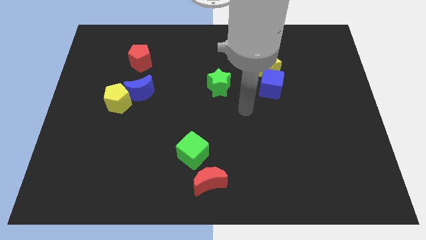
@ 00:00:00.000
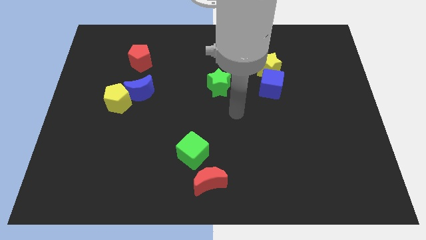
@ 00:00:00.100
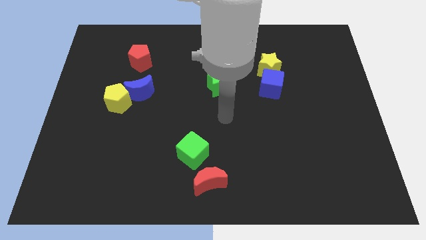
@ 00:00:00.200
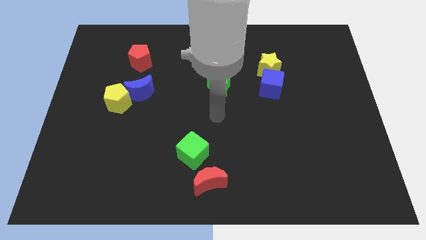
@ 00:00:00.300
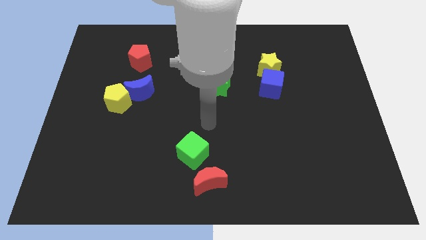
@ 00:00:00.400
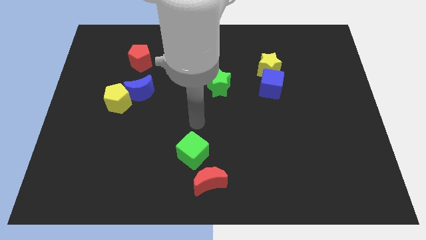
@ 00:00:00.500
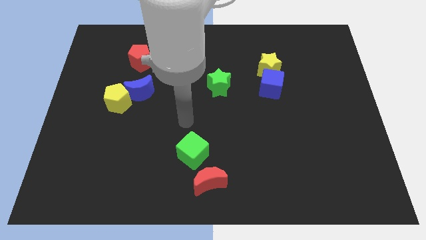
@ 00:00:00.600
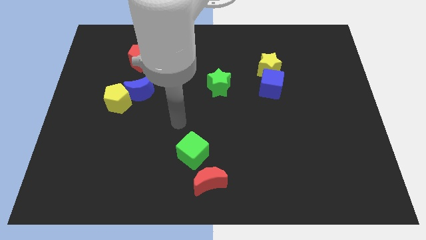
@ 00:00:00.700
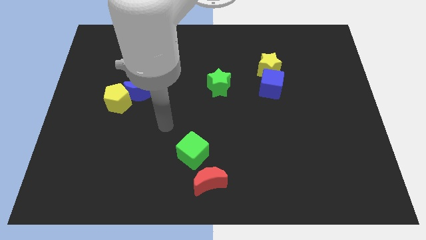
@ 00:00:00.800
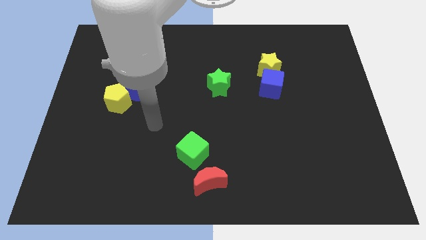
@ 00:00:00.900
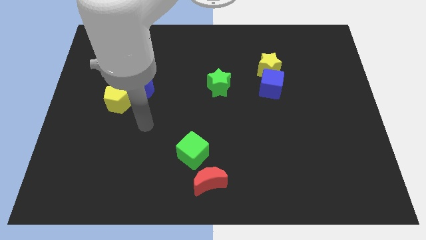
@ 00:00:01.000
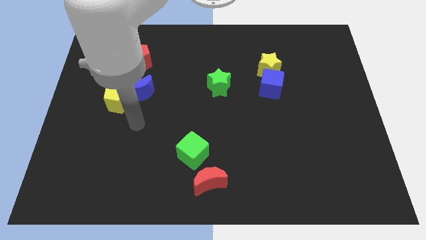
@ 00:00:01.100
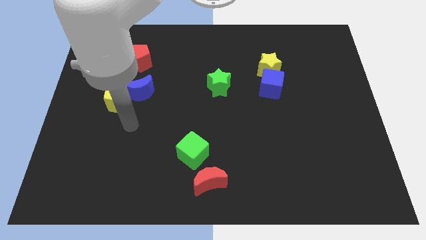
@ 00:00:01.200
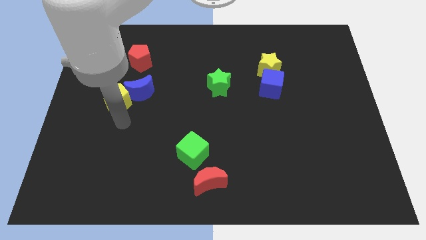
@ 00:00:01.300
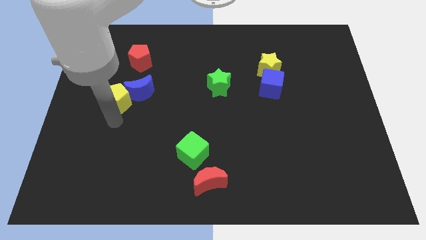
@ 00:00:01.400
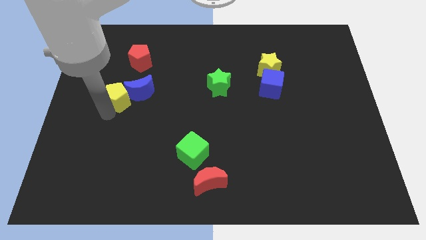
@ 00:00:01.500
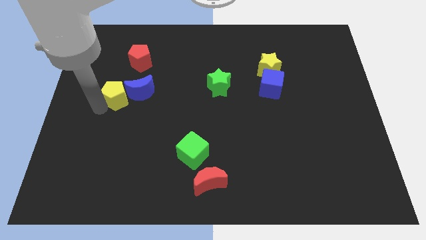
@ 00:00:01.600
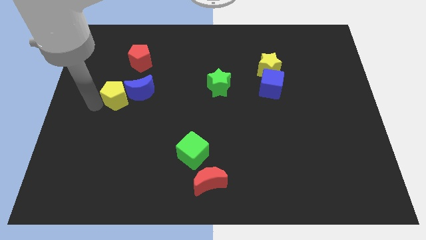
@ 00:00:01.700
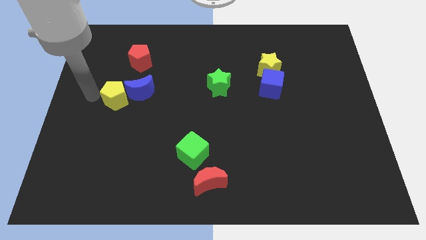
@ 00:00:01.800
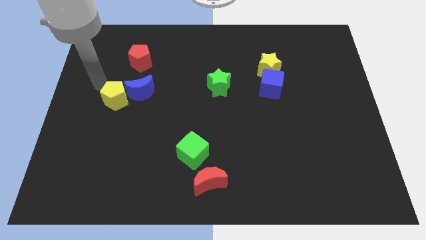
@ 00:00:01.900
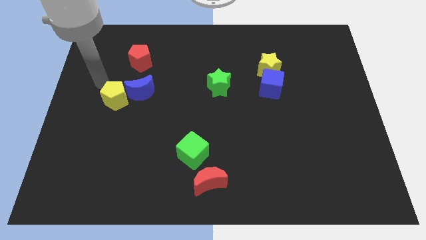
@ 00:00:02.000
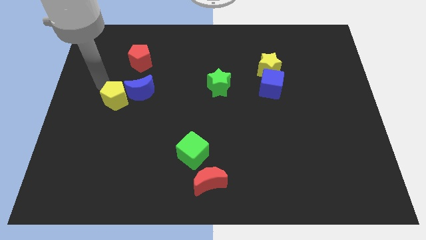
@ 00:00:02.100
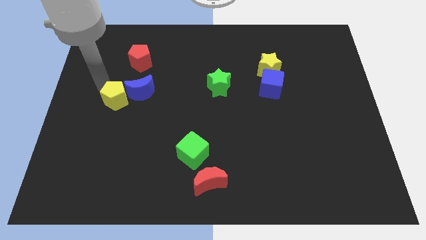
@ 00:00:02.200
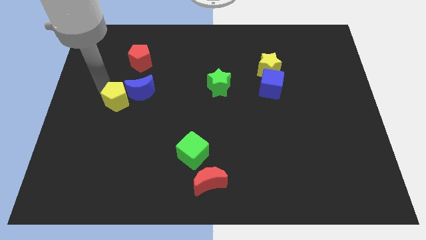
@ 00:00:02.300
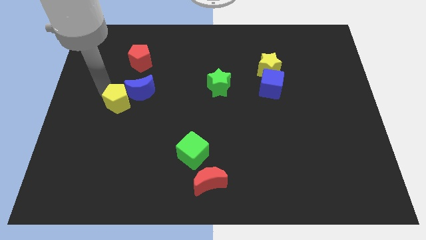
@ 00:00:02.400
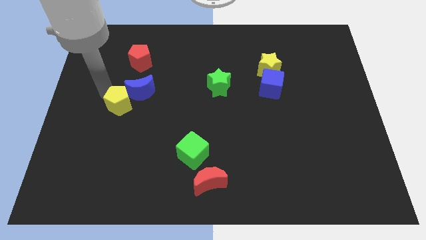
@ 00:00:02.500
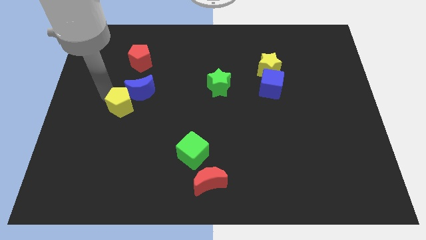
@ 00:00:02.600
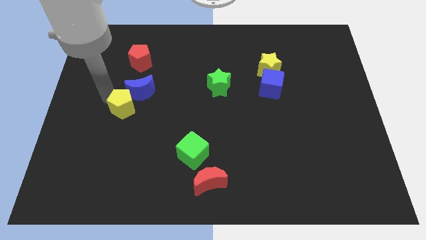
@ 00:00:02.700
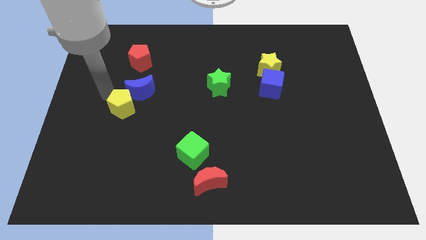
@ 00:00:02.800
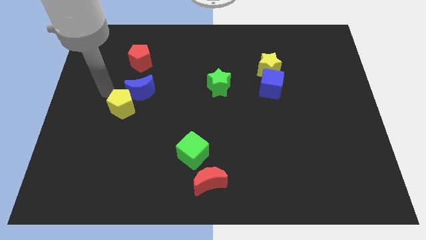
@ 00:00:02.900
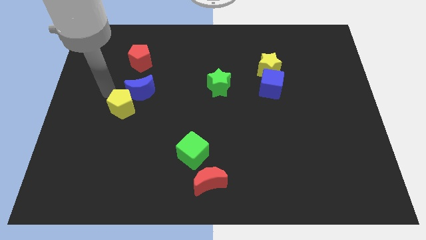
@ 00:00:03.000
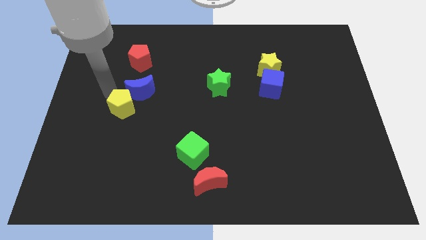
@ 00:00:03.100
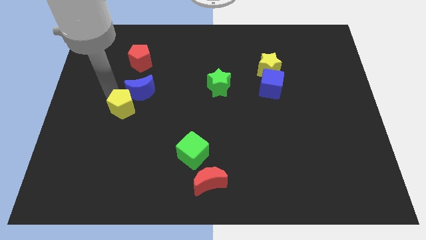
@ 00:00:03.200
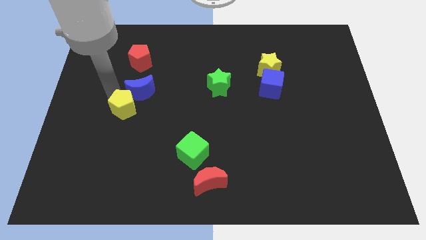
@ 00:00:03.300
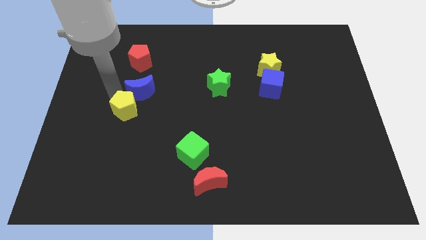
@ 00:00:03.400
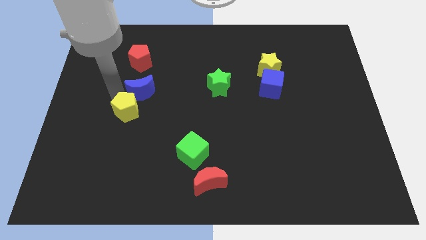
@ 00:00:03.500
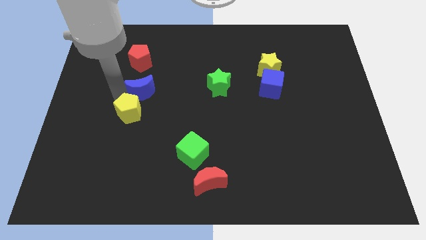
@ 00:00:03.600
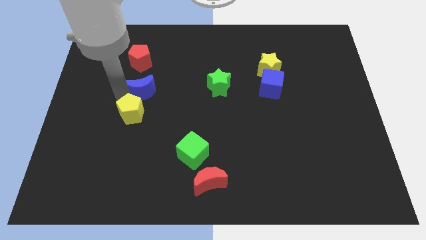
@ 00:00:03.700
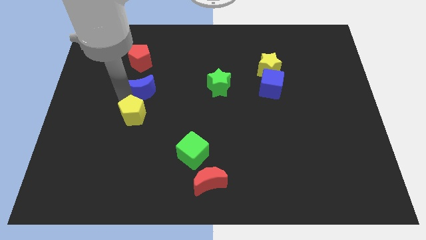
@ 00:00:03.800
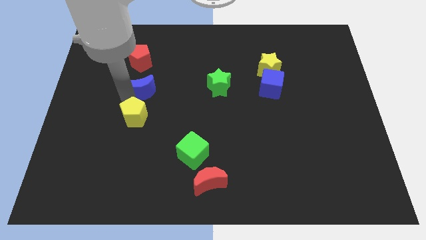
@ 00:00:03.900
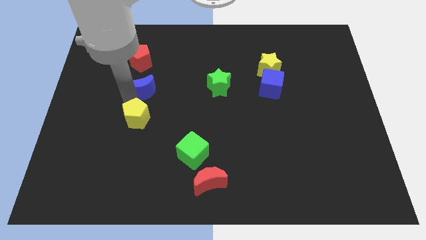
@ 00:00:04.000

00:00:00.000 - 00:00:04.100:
push the yellow pentagon somewhat diagonally downwards and to the right

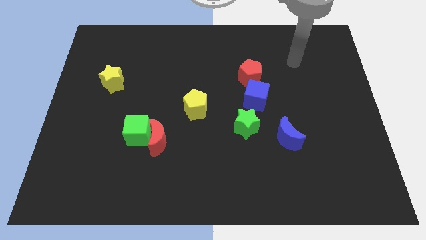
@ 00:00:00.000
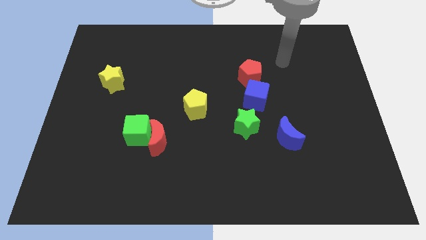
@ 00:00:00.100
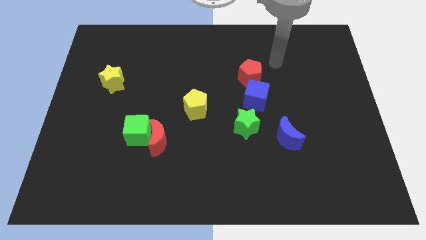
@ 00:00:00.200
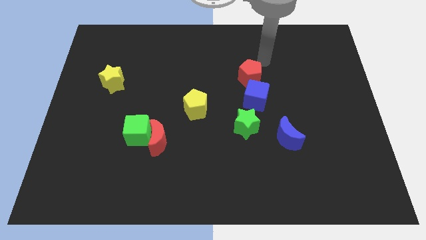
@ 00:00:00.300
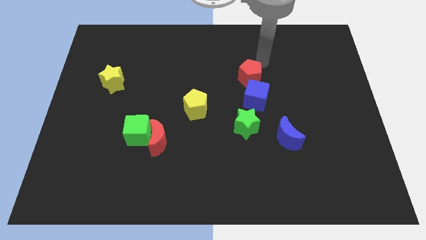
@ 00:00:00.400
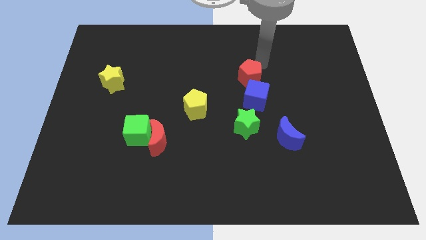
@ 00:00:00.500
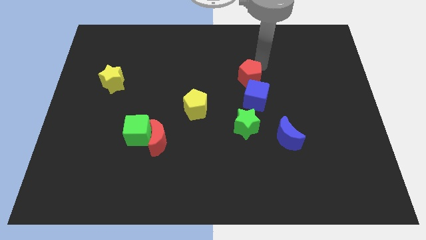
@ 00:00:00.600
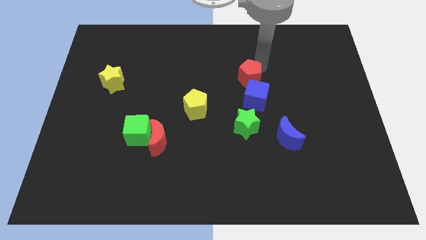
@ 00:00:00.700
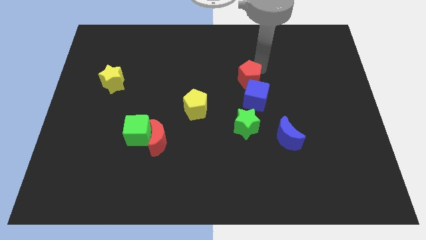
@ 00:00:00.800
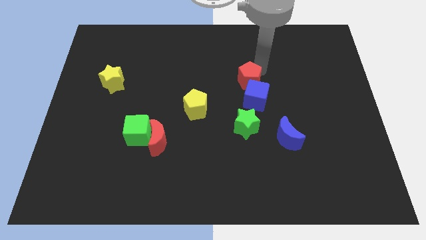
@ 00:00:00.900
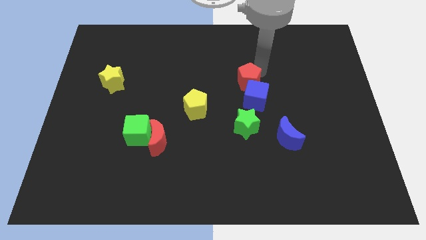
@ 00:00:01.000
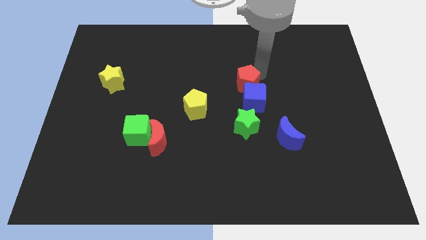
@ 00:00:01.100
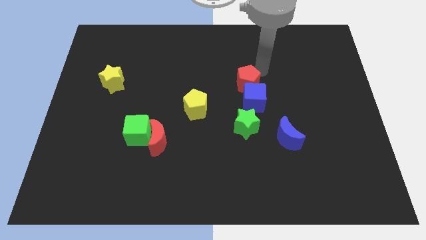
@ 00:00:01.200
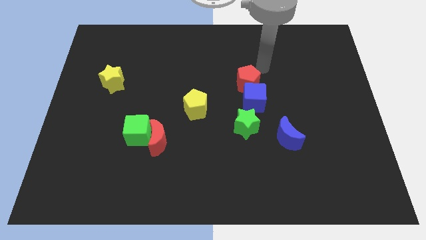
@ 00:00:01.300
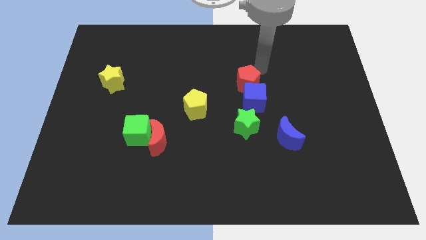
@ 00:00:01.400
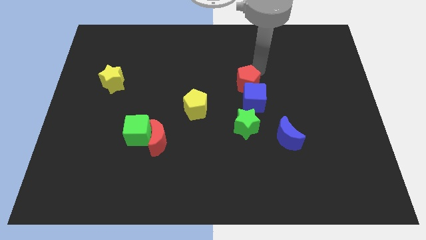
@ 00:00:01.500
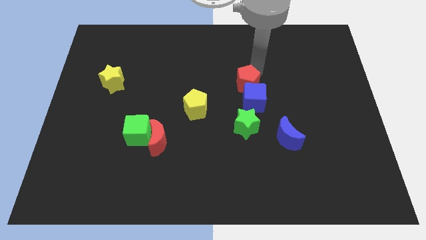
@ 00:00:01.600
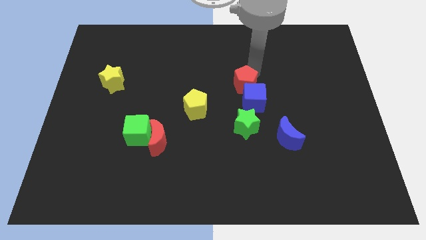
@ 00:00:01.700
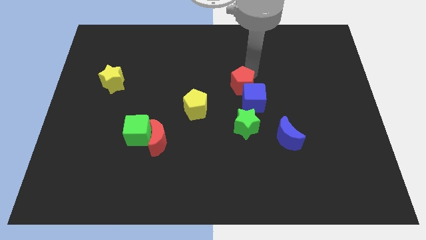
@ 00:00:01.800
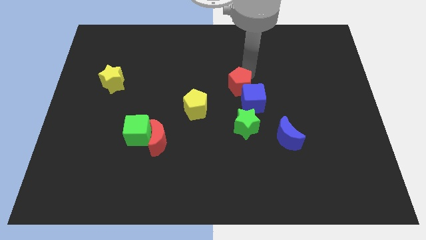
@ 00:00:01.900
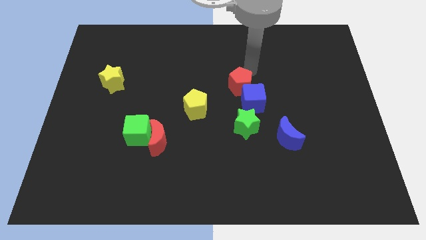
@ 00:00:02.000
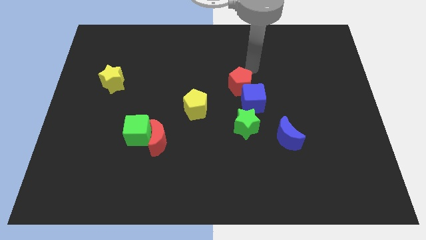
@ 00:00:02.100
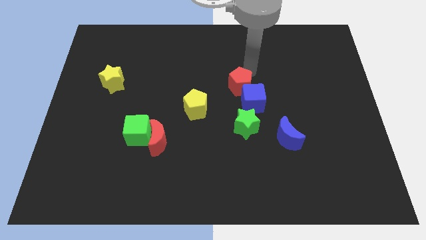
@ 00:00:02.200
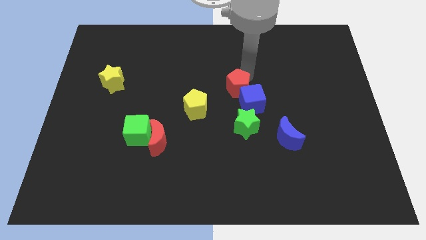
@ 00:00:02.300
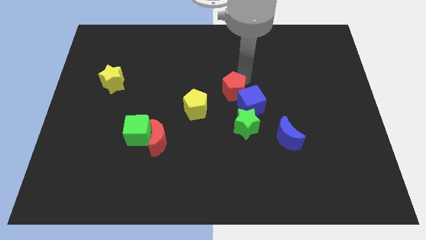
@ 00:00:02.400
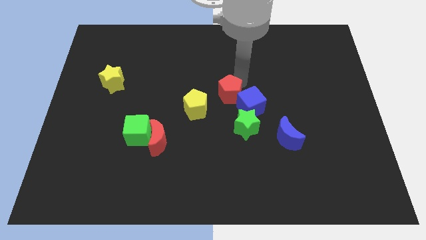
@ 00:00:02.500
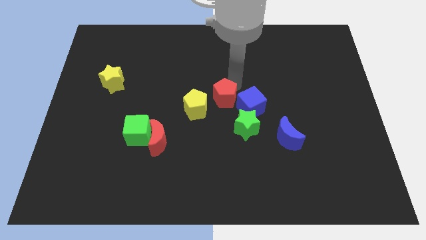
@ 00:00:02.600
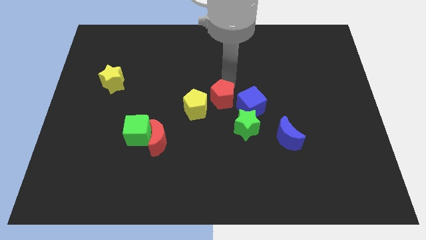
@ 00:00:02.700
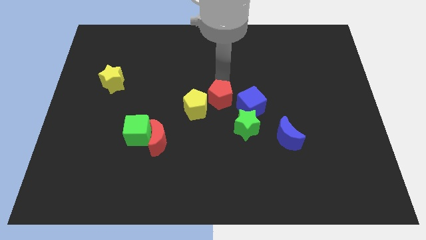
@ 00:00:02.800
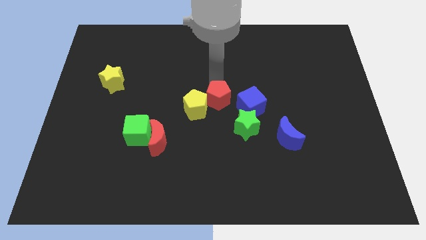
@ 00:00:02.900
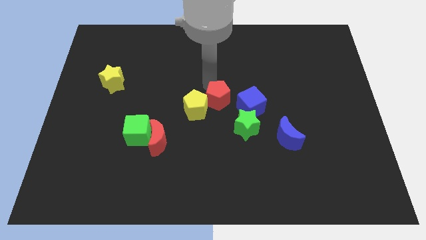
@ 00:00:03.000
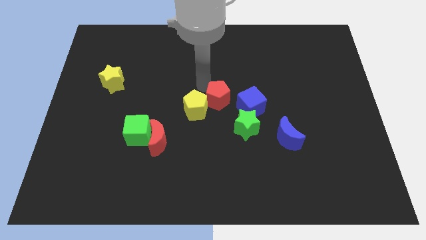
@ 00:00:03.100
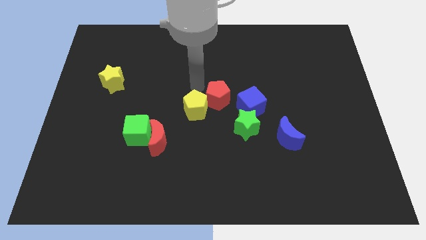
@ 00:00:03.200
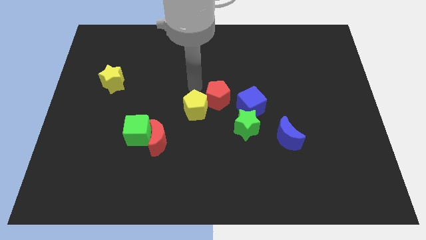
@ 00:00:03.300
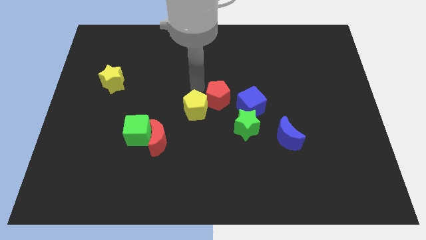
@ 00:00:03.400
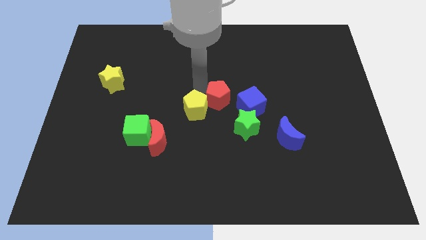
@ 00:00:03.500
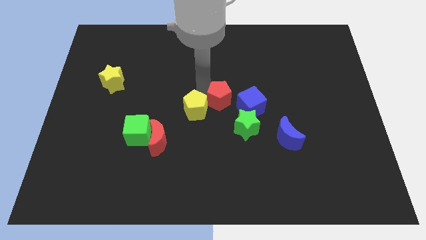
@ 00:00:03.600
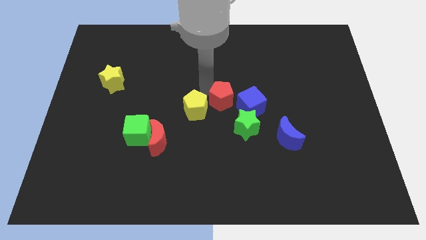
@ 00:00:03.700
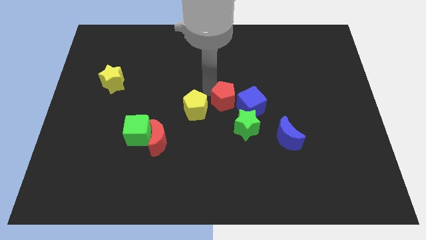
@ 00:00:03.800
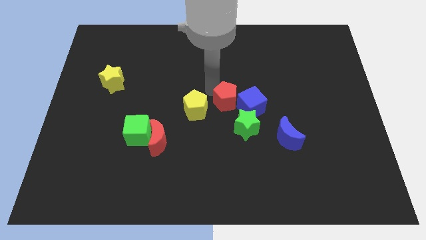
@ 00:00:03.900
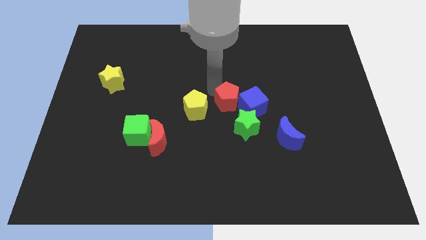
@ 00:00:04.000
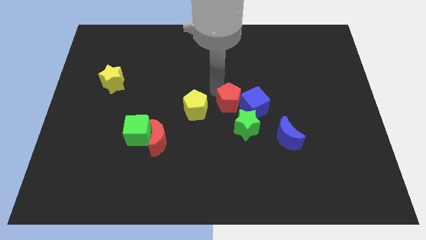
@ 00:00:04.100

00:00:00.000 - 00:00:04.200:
slightly push the red pentagon downwards
